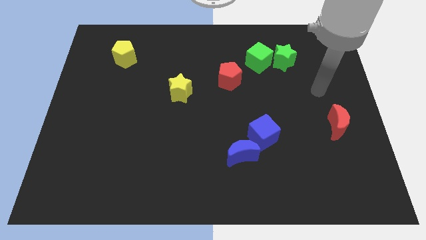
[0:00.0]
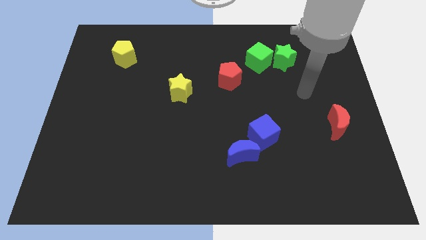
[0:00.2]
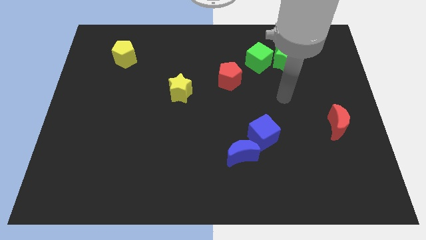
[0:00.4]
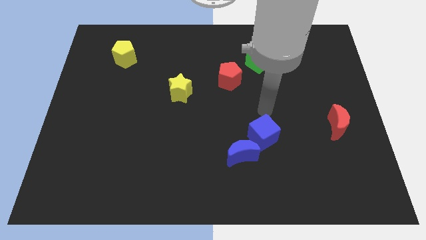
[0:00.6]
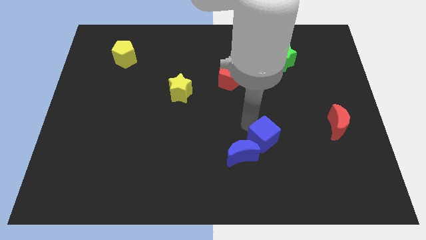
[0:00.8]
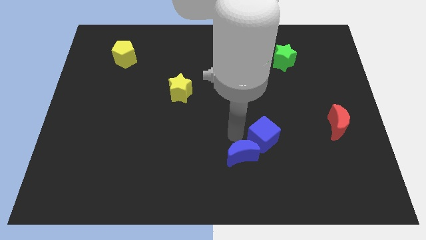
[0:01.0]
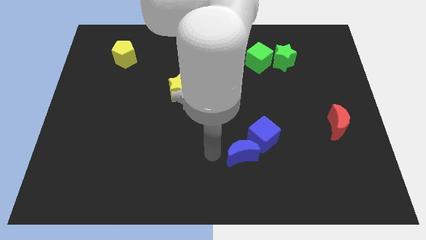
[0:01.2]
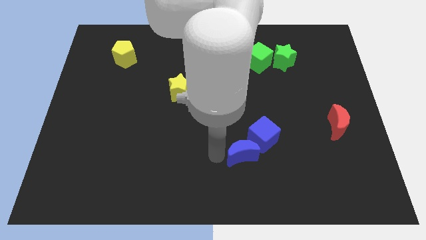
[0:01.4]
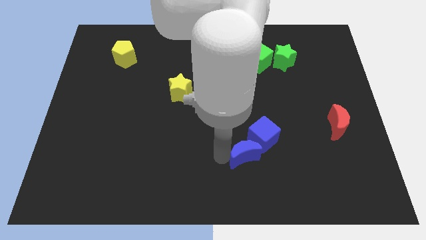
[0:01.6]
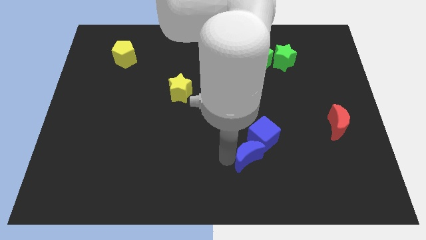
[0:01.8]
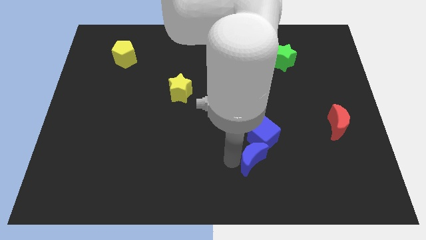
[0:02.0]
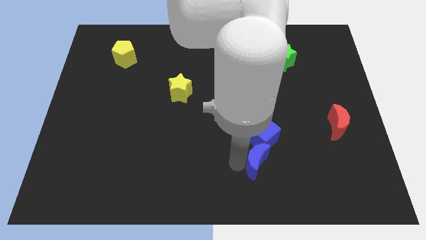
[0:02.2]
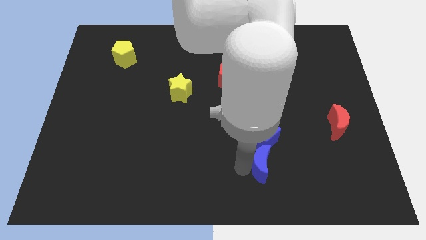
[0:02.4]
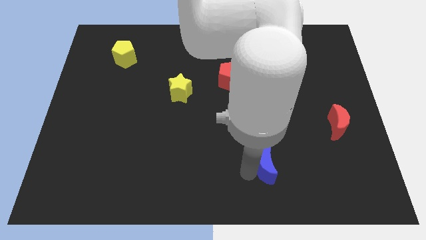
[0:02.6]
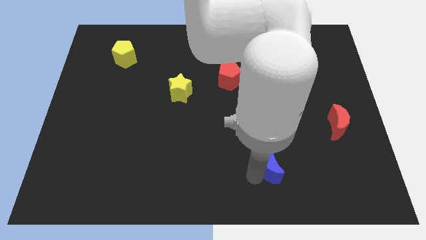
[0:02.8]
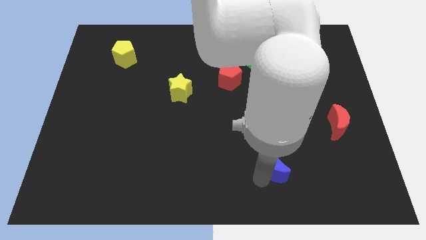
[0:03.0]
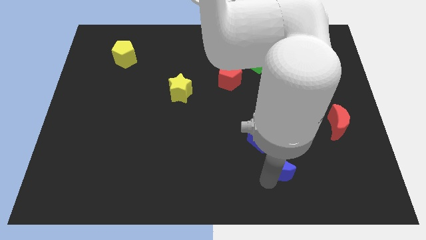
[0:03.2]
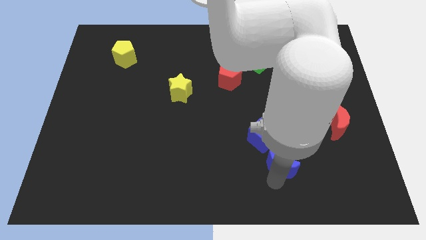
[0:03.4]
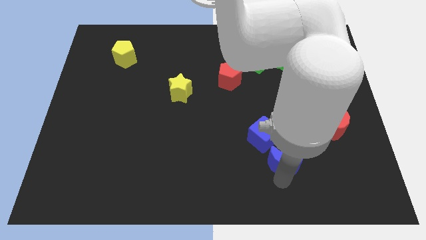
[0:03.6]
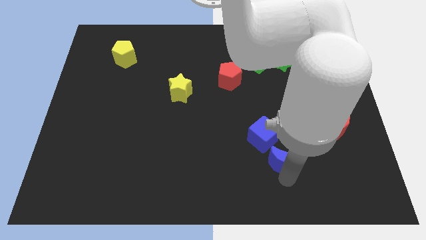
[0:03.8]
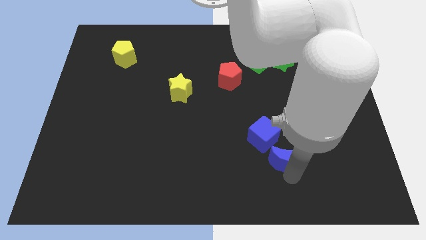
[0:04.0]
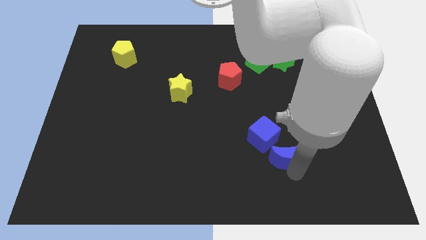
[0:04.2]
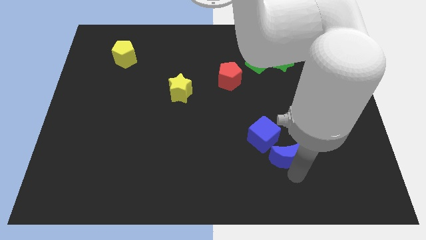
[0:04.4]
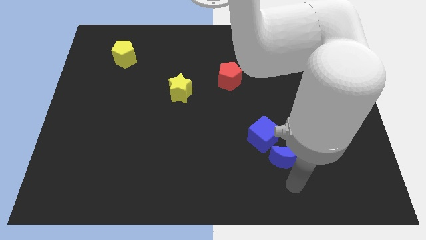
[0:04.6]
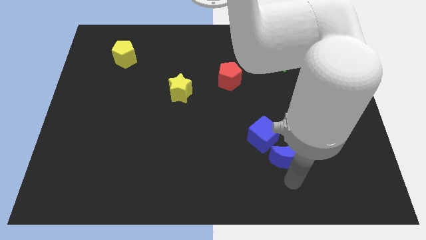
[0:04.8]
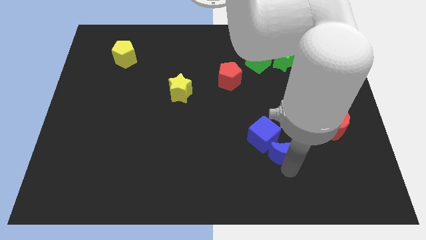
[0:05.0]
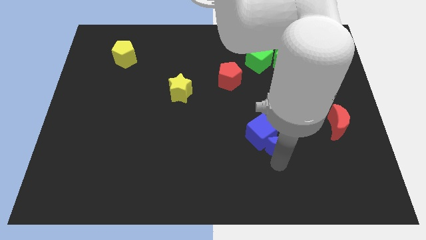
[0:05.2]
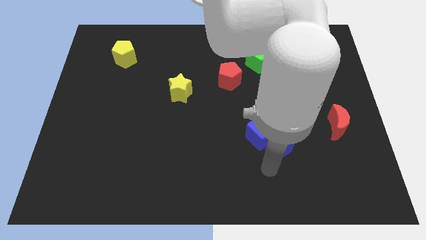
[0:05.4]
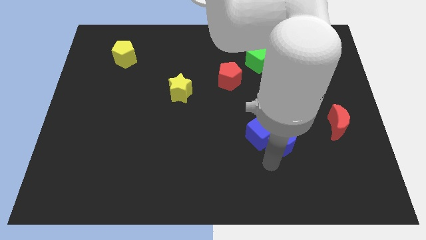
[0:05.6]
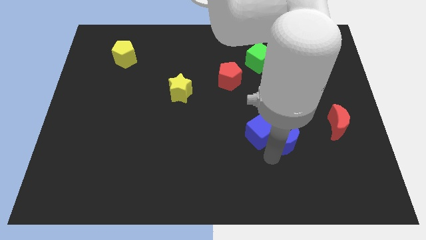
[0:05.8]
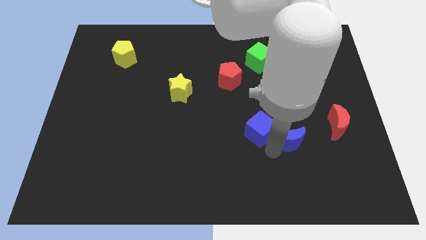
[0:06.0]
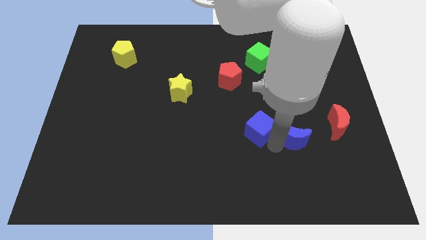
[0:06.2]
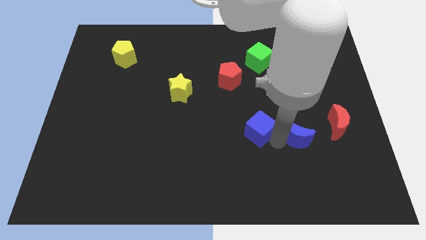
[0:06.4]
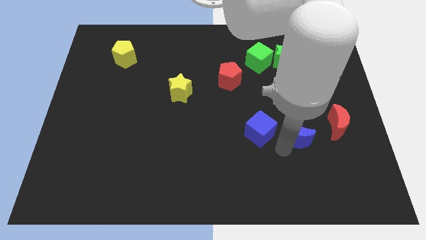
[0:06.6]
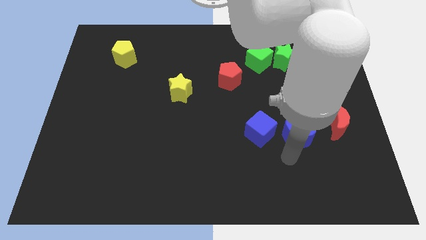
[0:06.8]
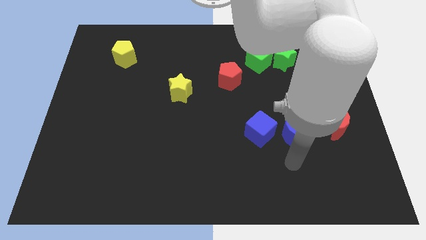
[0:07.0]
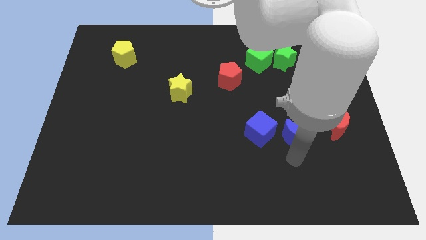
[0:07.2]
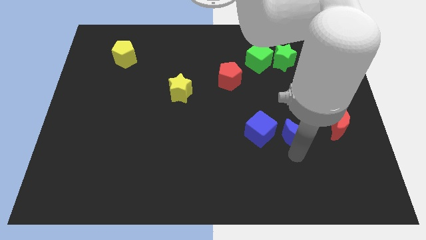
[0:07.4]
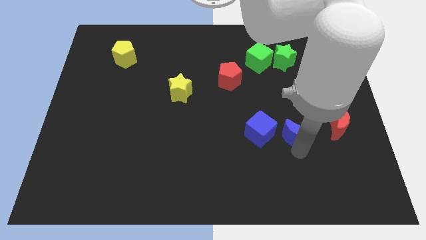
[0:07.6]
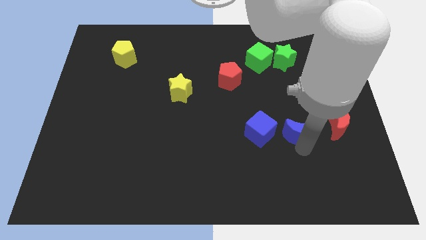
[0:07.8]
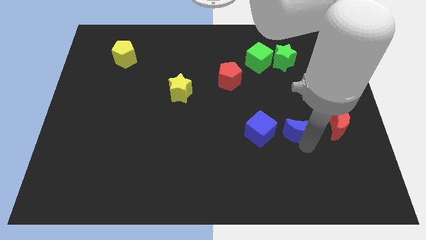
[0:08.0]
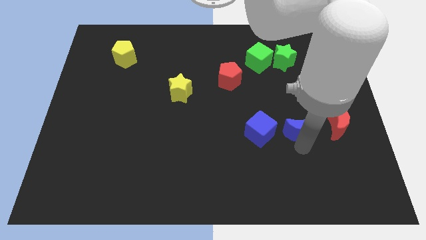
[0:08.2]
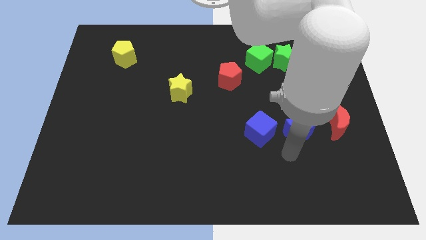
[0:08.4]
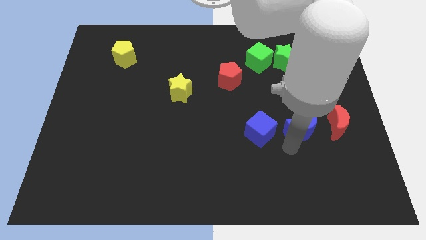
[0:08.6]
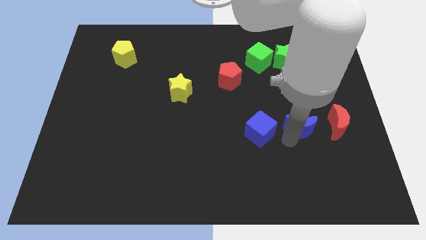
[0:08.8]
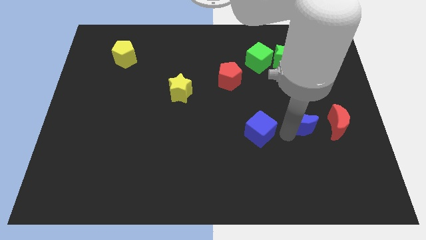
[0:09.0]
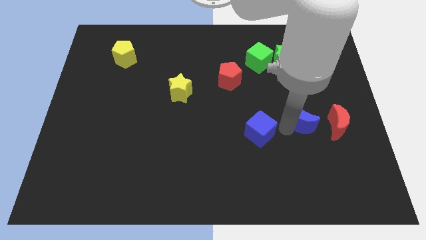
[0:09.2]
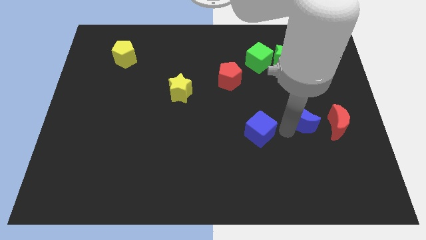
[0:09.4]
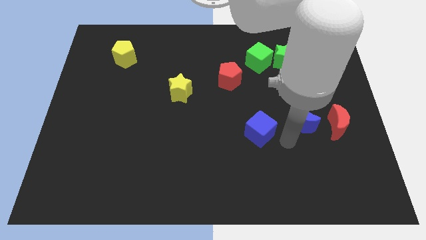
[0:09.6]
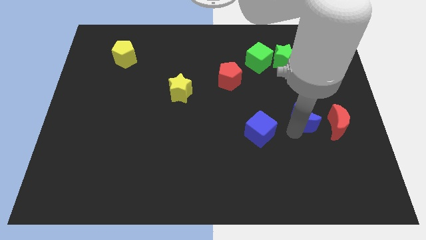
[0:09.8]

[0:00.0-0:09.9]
push the blue moon to the top left of the red moon

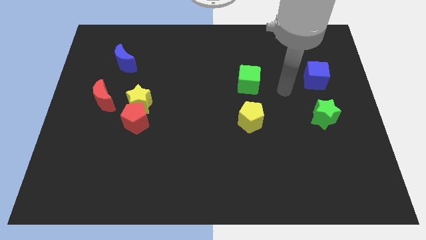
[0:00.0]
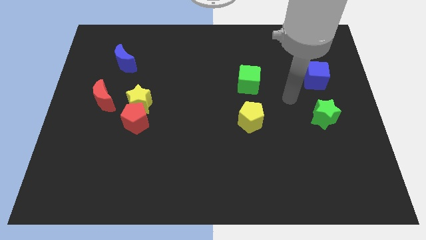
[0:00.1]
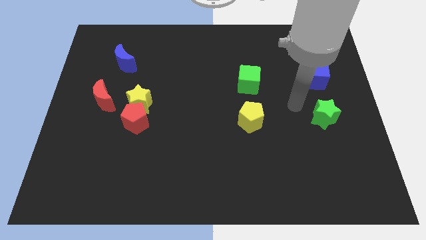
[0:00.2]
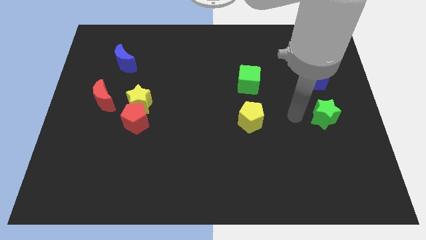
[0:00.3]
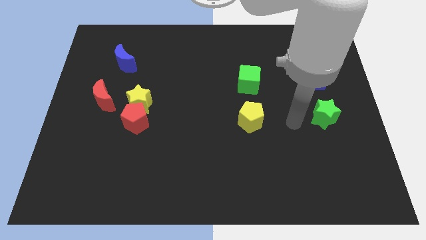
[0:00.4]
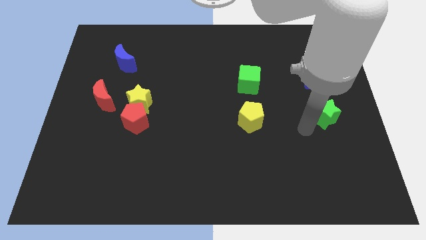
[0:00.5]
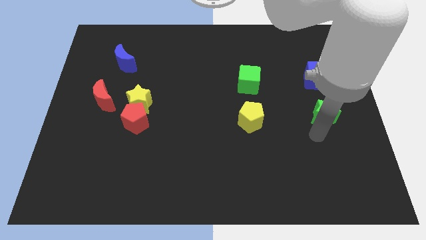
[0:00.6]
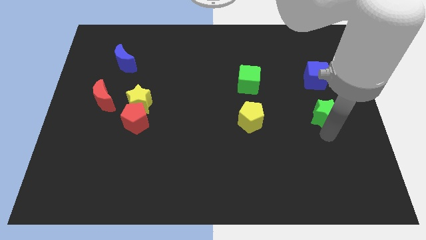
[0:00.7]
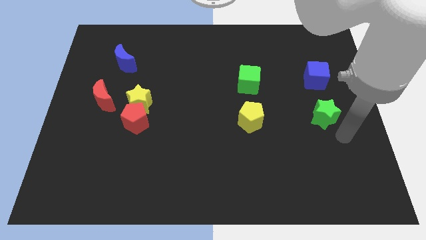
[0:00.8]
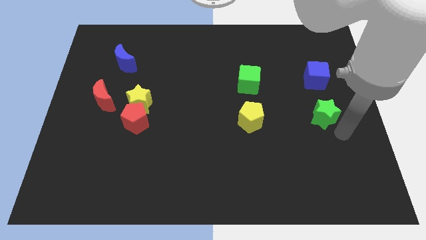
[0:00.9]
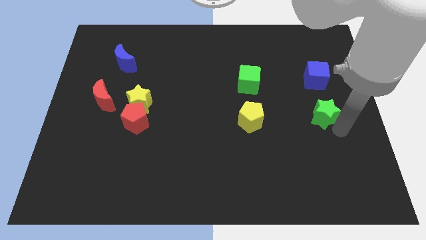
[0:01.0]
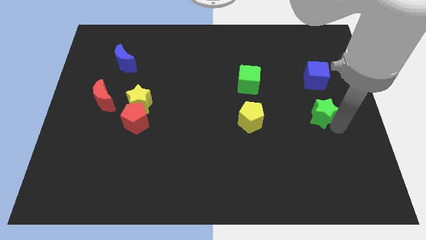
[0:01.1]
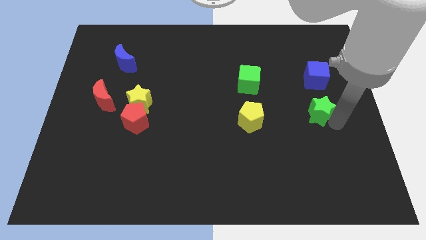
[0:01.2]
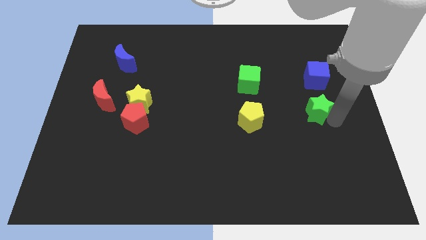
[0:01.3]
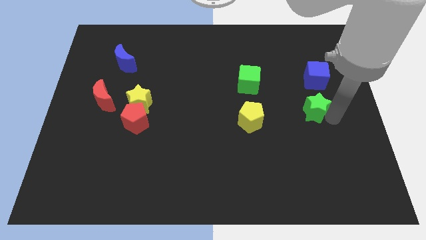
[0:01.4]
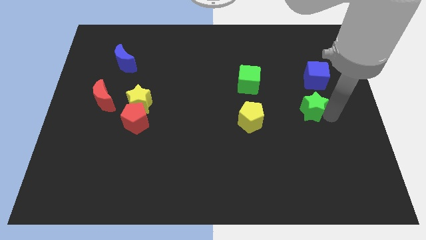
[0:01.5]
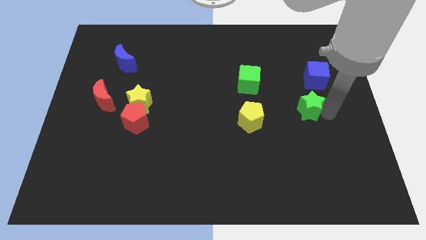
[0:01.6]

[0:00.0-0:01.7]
push the green star diagonally down and to the left of the blue cube
